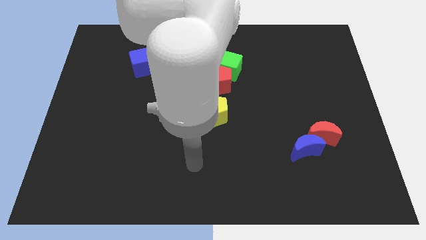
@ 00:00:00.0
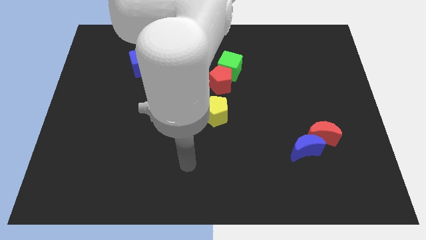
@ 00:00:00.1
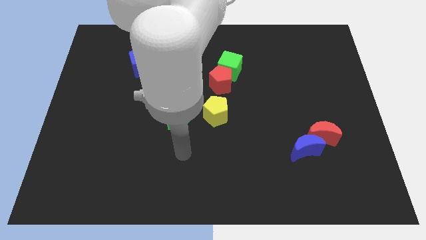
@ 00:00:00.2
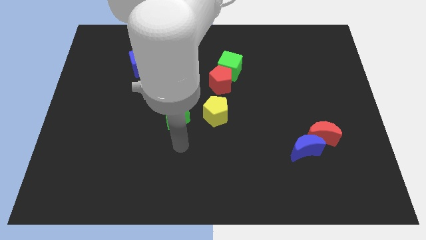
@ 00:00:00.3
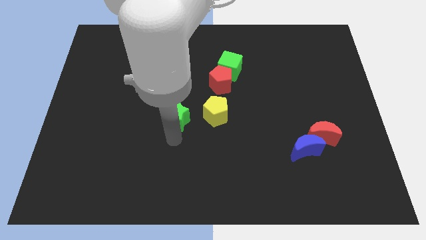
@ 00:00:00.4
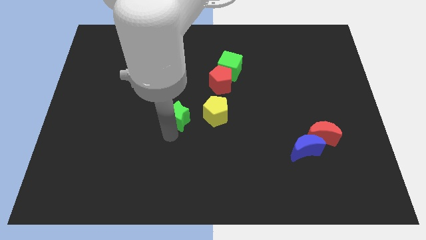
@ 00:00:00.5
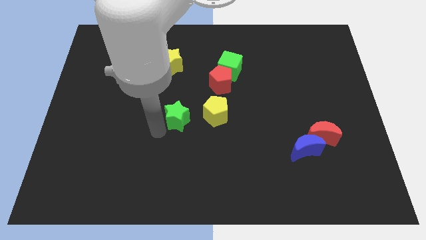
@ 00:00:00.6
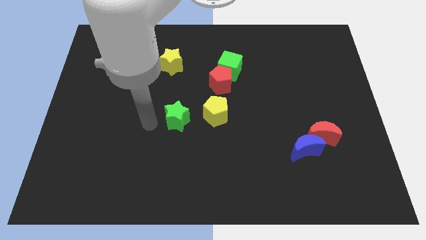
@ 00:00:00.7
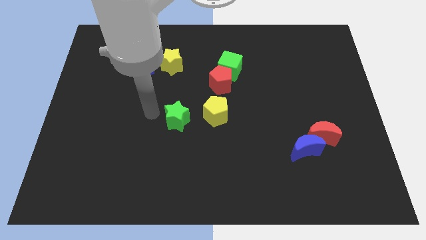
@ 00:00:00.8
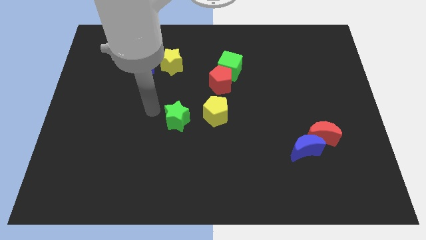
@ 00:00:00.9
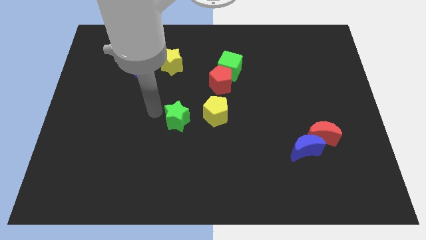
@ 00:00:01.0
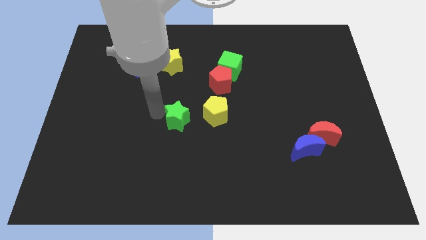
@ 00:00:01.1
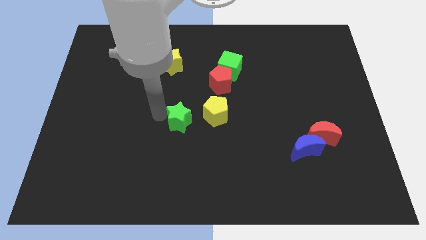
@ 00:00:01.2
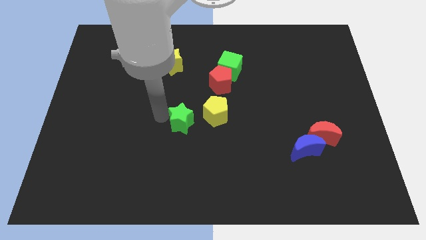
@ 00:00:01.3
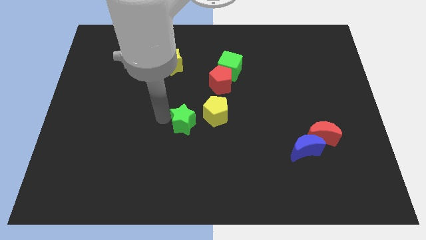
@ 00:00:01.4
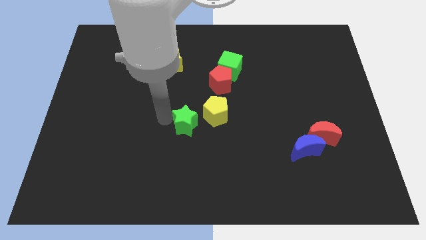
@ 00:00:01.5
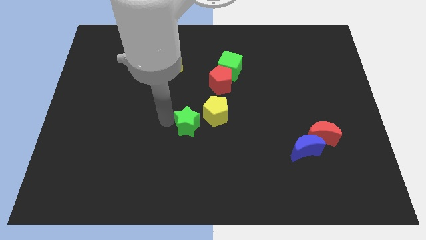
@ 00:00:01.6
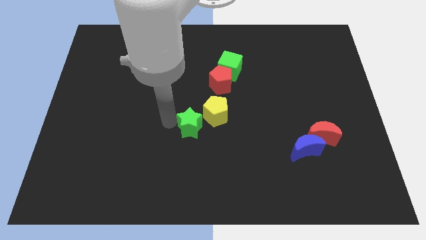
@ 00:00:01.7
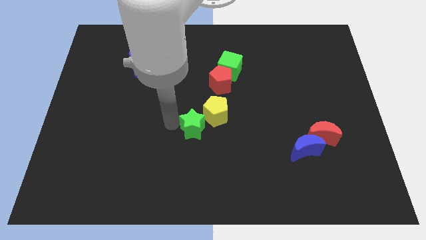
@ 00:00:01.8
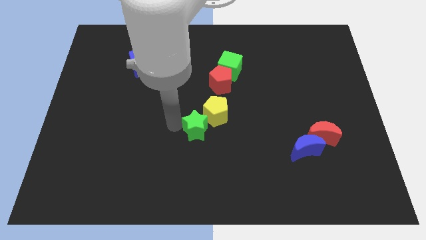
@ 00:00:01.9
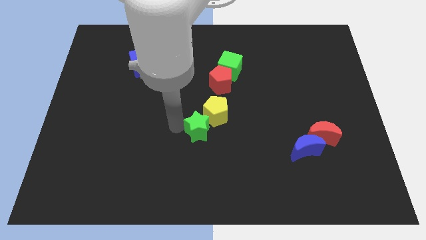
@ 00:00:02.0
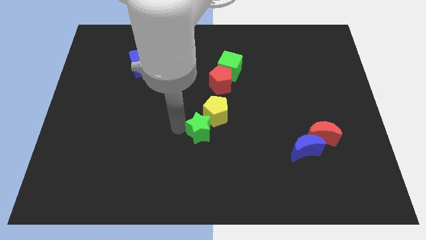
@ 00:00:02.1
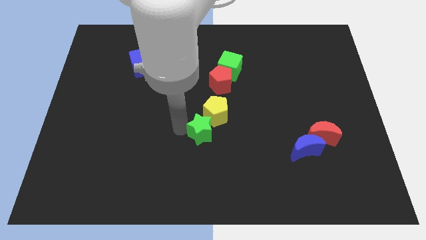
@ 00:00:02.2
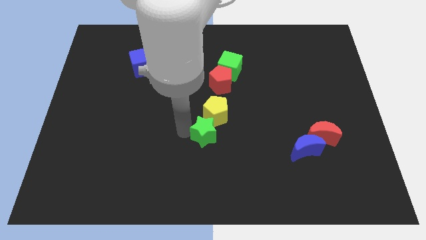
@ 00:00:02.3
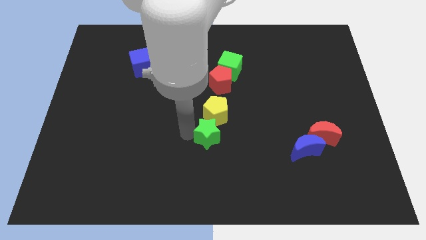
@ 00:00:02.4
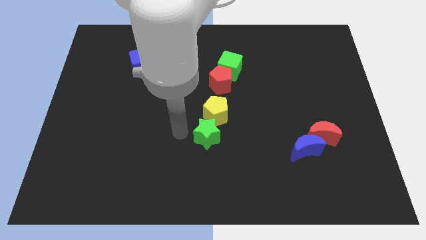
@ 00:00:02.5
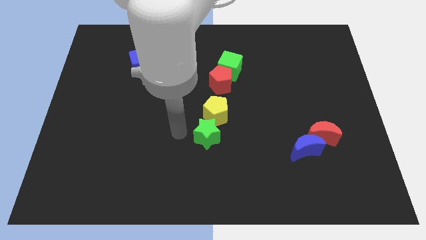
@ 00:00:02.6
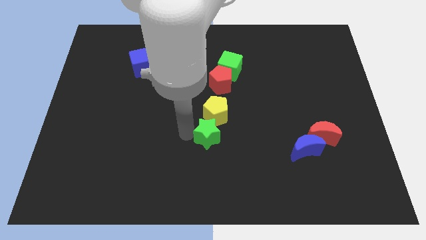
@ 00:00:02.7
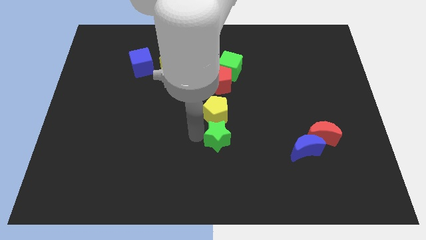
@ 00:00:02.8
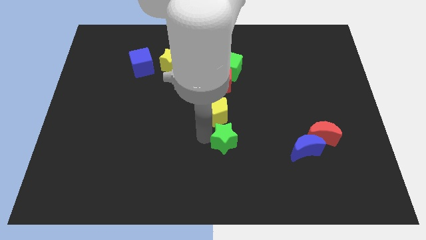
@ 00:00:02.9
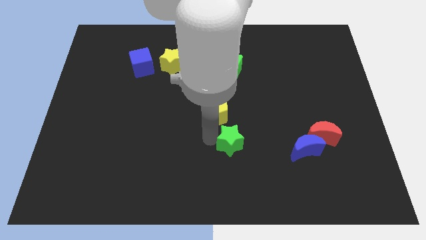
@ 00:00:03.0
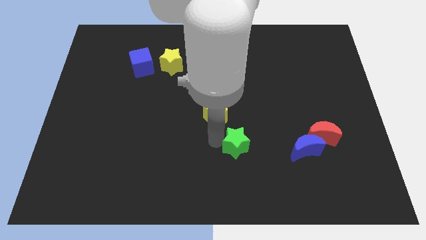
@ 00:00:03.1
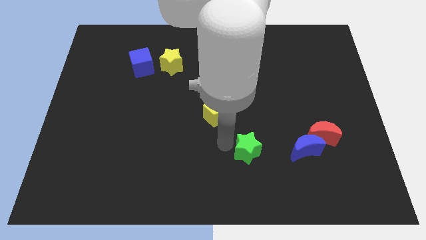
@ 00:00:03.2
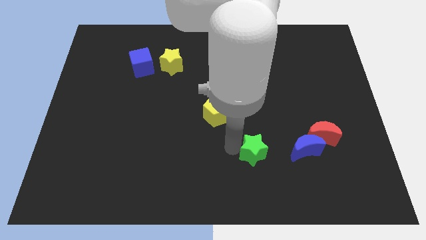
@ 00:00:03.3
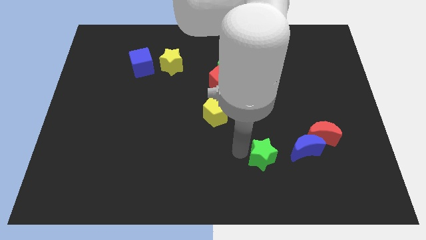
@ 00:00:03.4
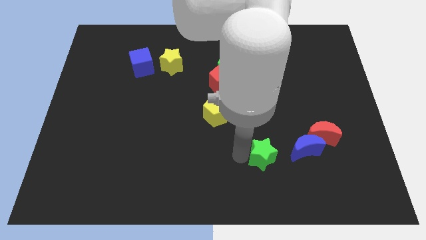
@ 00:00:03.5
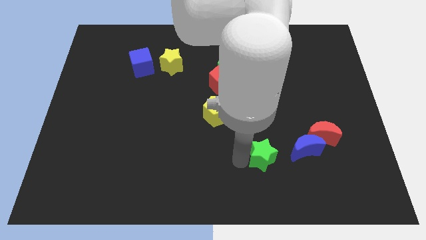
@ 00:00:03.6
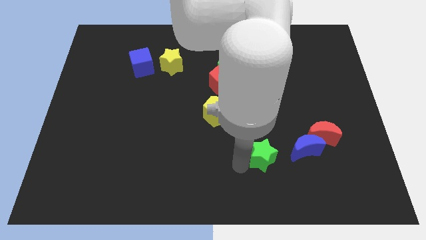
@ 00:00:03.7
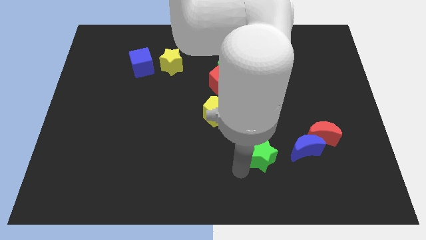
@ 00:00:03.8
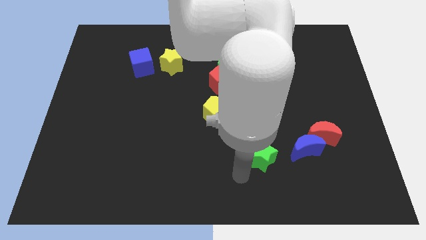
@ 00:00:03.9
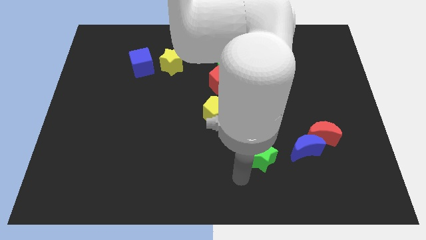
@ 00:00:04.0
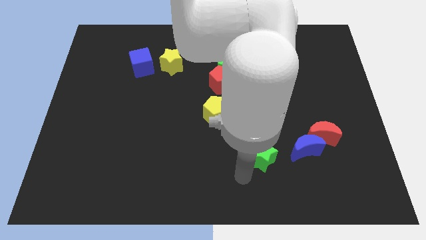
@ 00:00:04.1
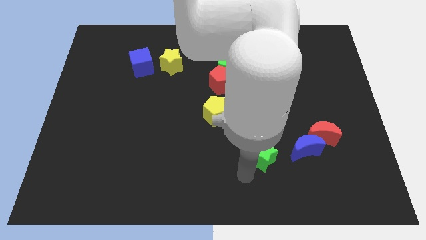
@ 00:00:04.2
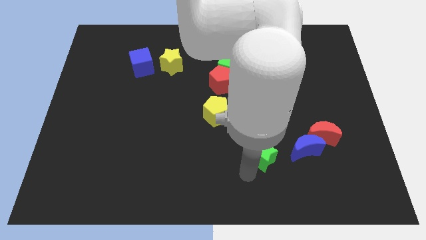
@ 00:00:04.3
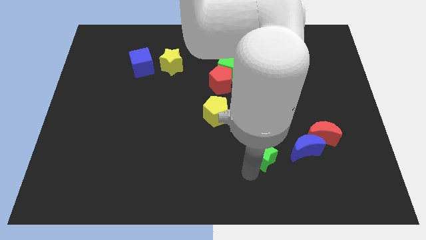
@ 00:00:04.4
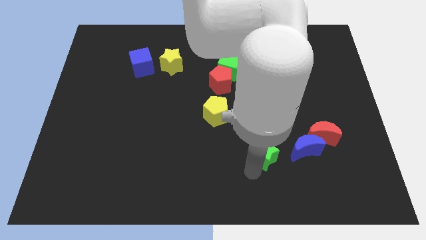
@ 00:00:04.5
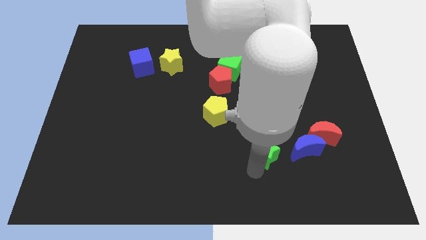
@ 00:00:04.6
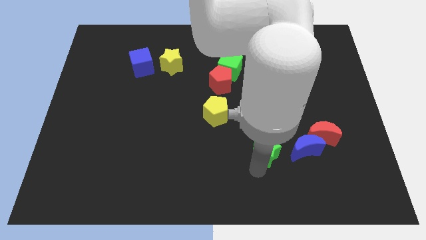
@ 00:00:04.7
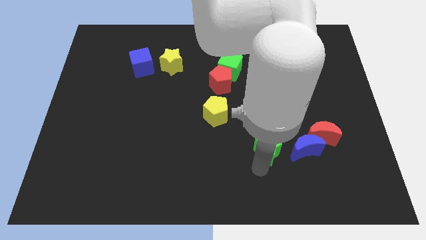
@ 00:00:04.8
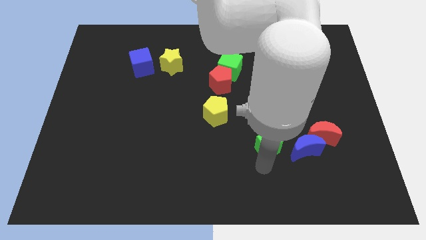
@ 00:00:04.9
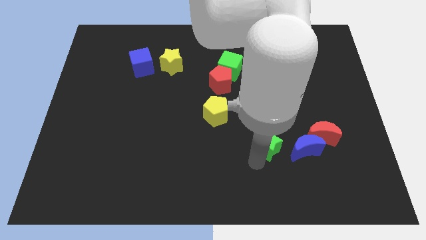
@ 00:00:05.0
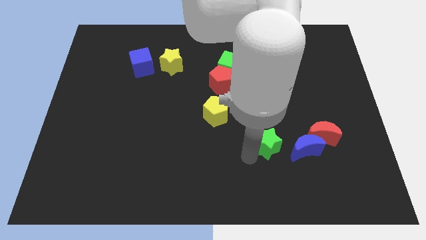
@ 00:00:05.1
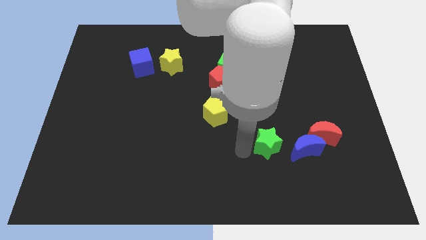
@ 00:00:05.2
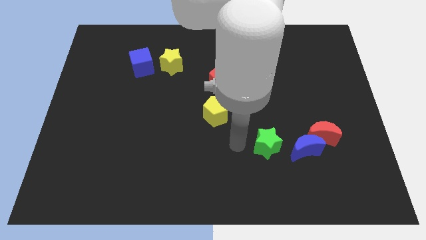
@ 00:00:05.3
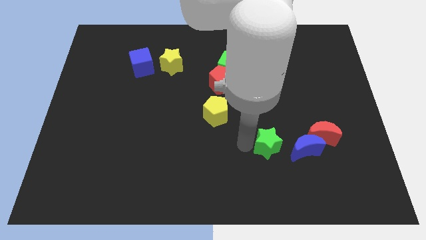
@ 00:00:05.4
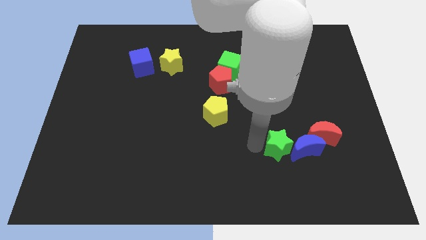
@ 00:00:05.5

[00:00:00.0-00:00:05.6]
slide the green star next to the blue moon

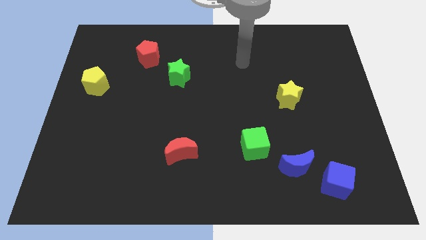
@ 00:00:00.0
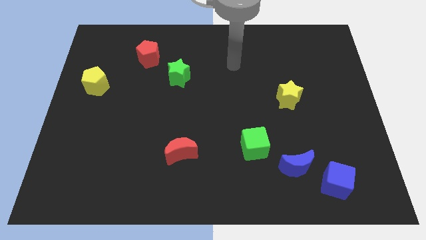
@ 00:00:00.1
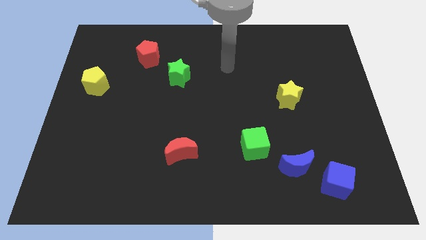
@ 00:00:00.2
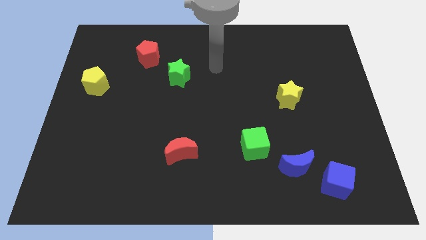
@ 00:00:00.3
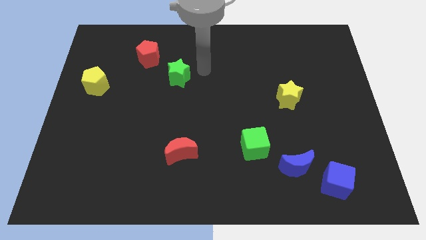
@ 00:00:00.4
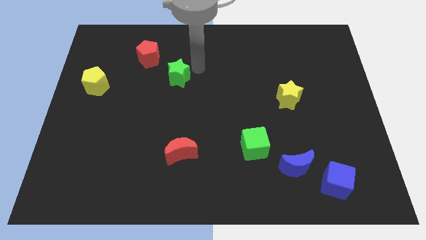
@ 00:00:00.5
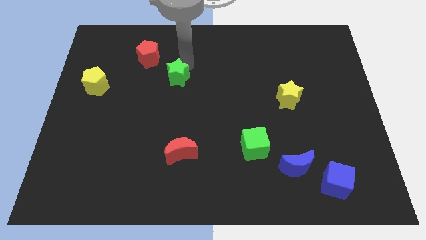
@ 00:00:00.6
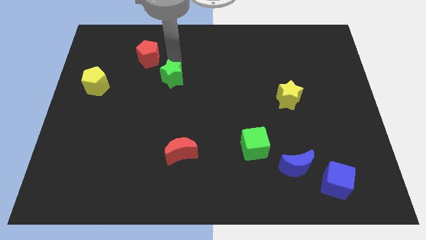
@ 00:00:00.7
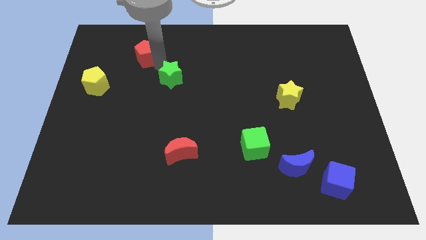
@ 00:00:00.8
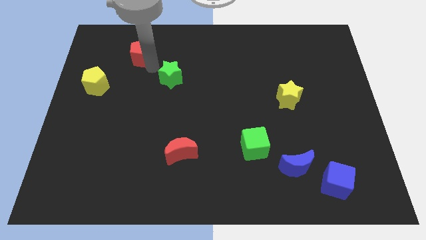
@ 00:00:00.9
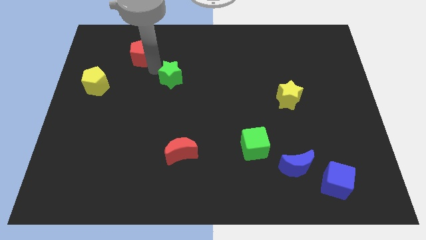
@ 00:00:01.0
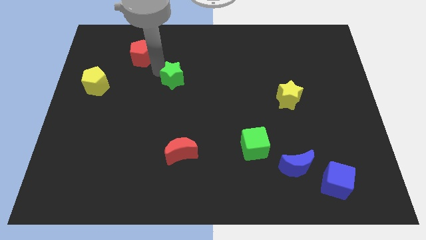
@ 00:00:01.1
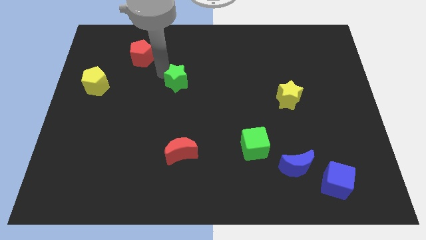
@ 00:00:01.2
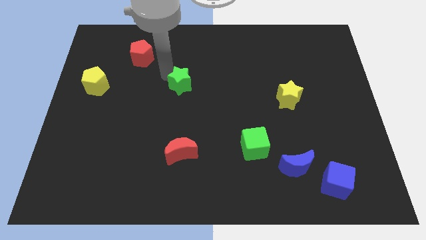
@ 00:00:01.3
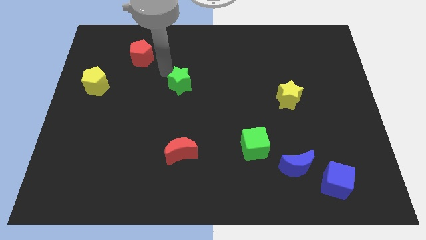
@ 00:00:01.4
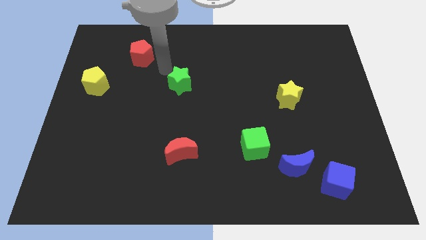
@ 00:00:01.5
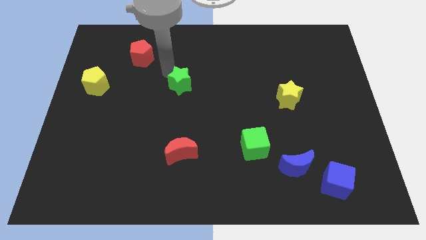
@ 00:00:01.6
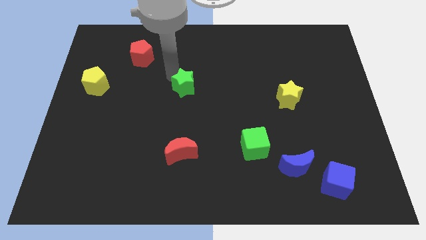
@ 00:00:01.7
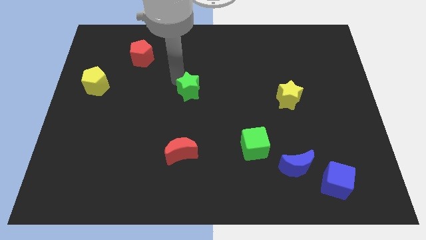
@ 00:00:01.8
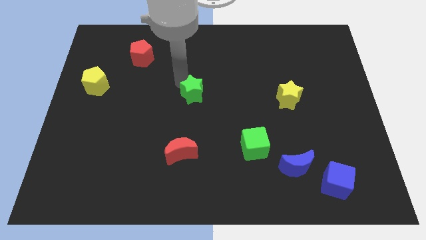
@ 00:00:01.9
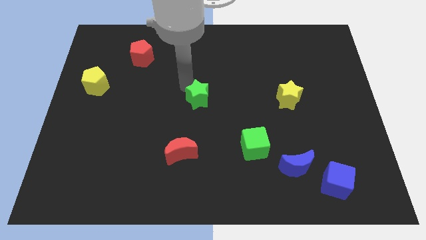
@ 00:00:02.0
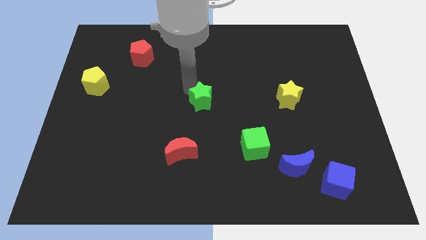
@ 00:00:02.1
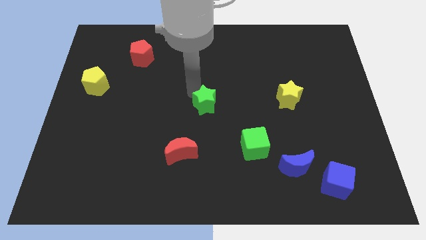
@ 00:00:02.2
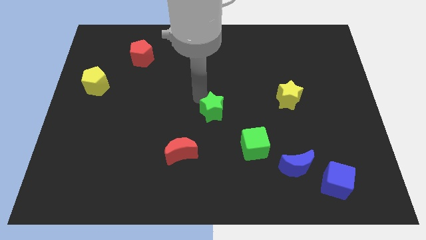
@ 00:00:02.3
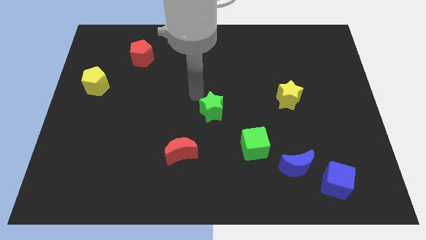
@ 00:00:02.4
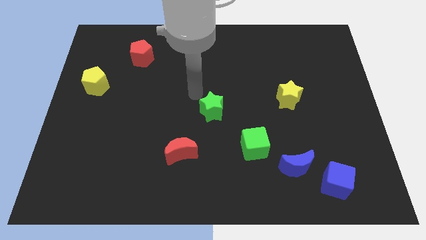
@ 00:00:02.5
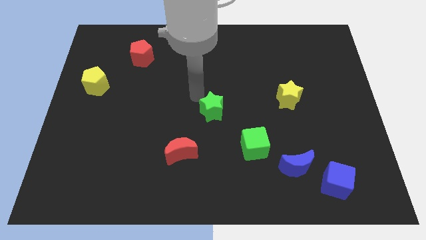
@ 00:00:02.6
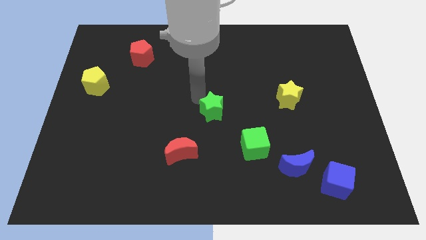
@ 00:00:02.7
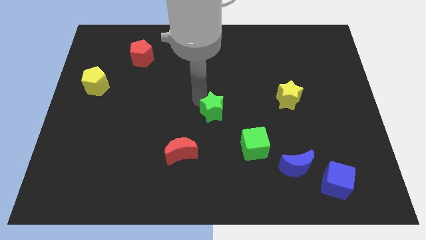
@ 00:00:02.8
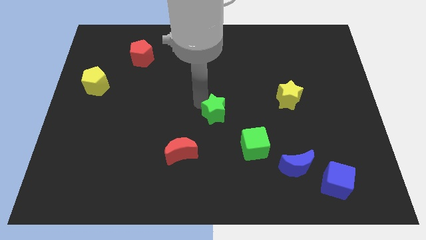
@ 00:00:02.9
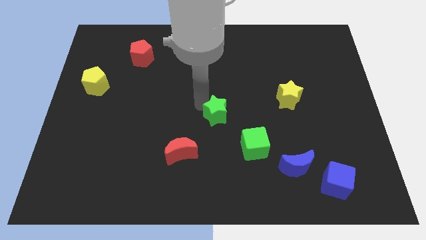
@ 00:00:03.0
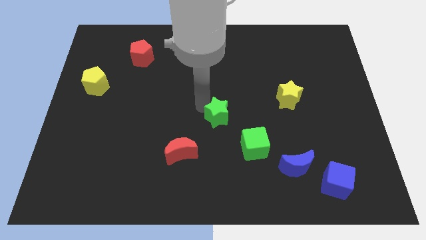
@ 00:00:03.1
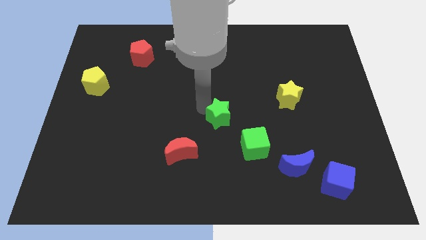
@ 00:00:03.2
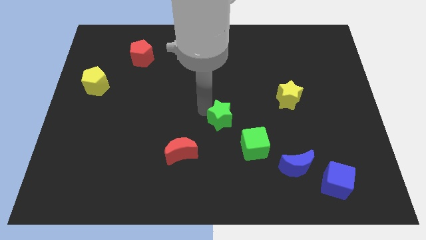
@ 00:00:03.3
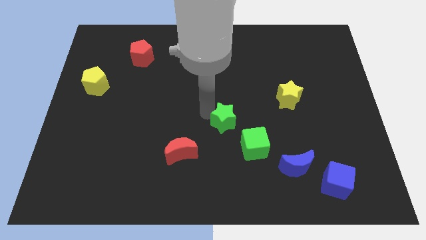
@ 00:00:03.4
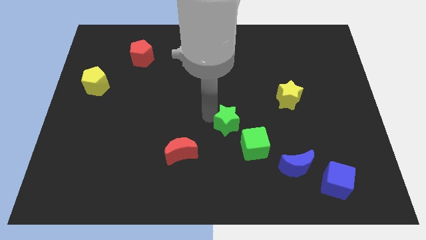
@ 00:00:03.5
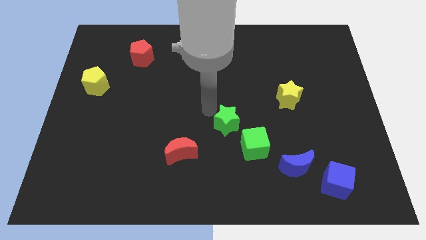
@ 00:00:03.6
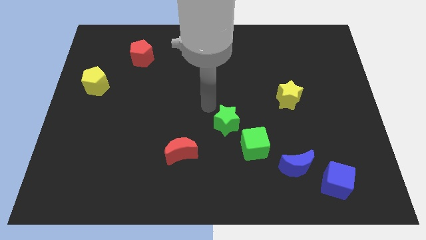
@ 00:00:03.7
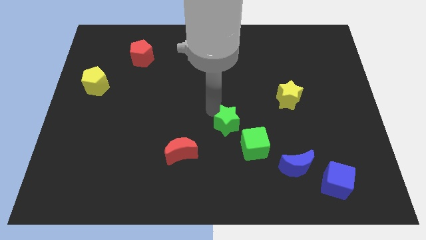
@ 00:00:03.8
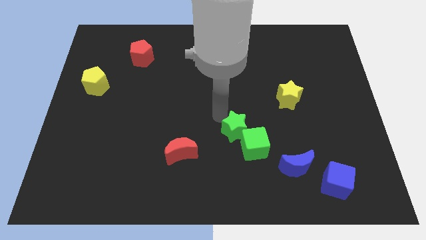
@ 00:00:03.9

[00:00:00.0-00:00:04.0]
put the green star next to the green cube
